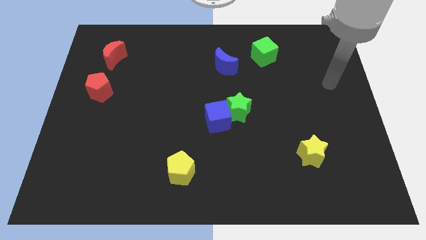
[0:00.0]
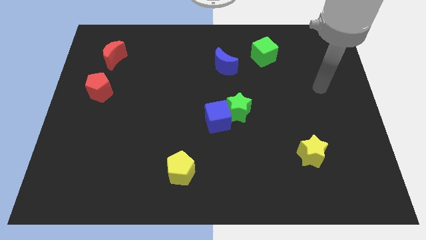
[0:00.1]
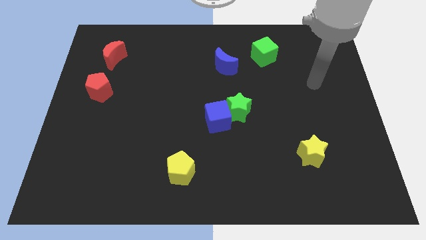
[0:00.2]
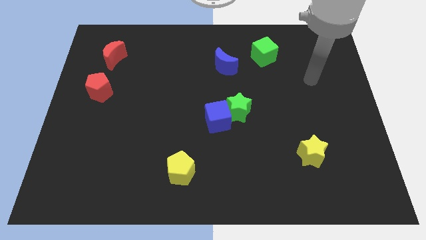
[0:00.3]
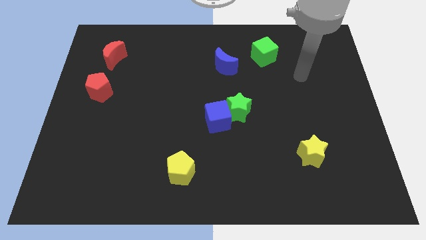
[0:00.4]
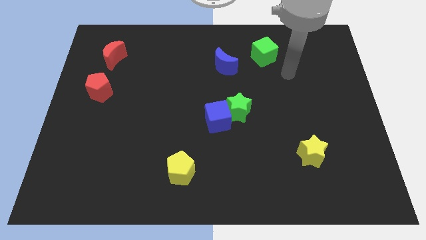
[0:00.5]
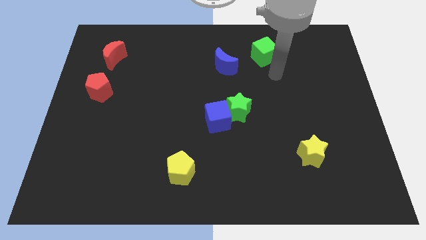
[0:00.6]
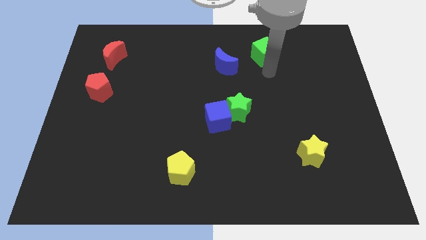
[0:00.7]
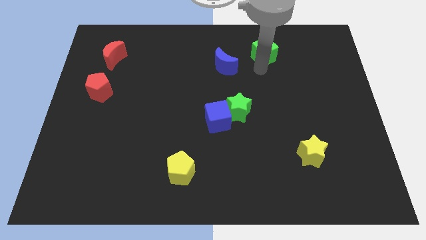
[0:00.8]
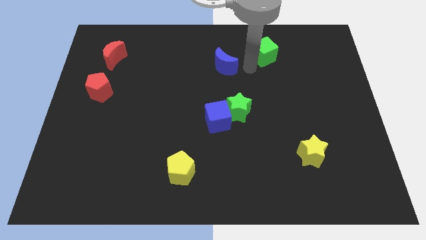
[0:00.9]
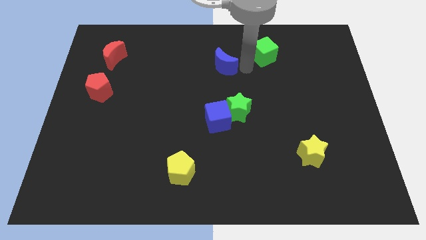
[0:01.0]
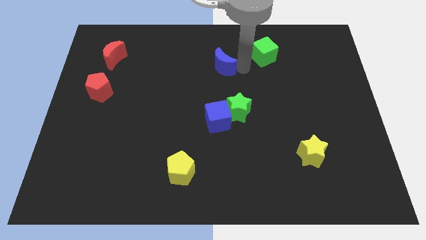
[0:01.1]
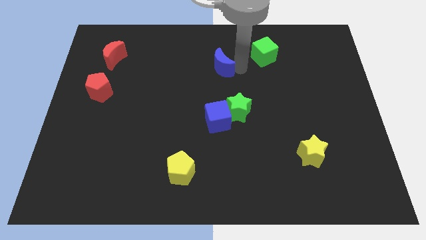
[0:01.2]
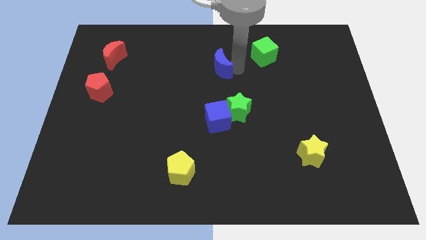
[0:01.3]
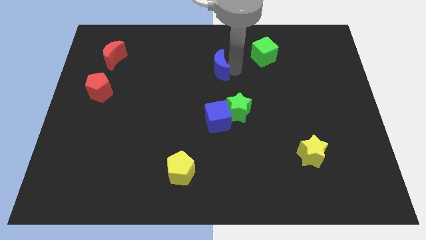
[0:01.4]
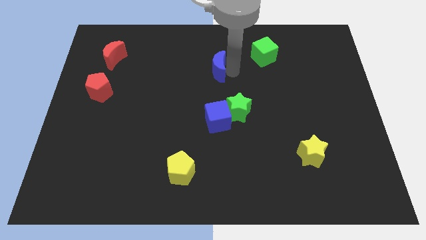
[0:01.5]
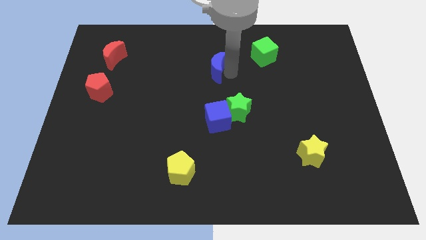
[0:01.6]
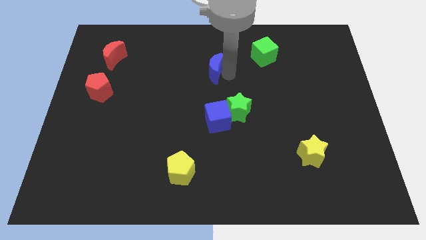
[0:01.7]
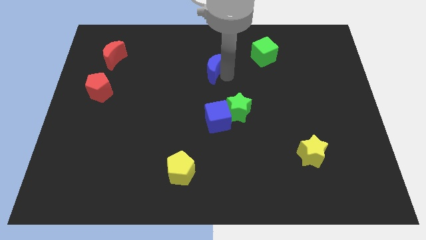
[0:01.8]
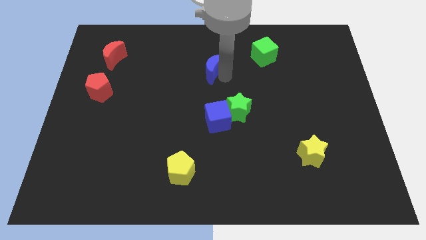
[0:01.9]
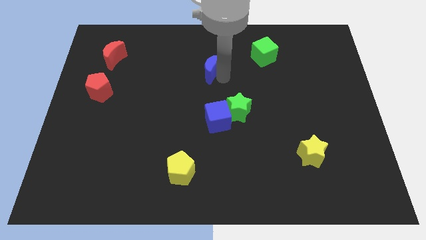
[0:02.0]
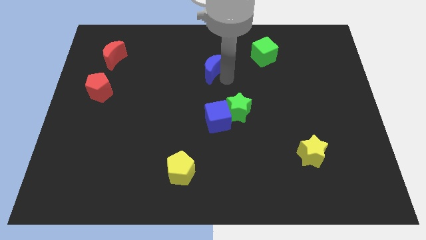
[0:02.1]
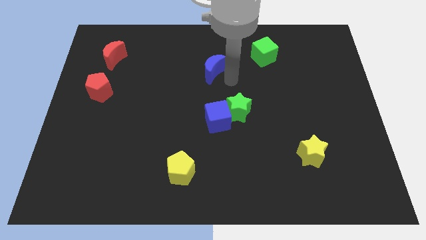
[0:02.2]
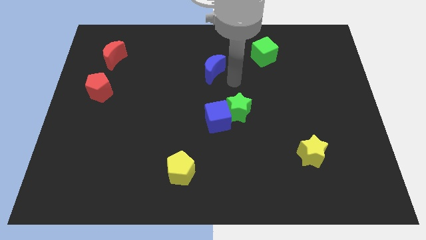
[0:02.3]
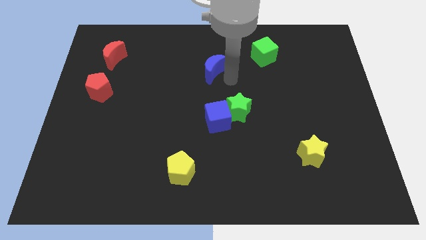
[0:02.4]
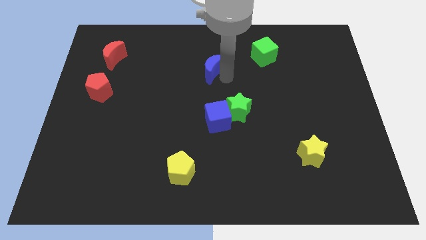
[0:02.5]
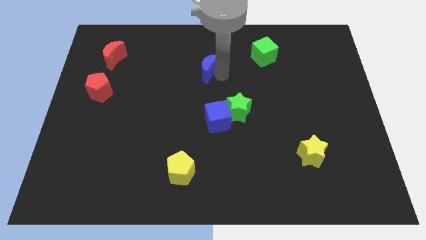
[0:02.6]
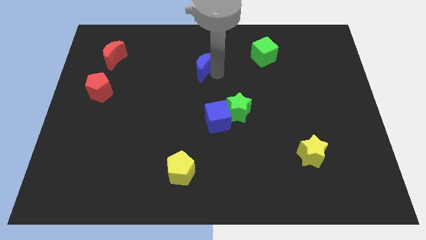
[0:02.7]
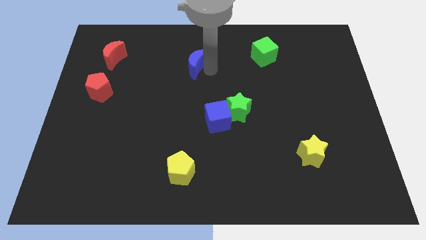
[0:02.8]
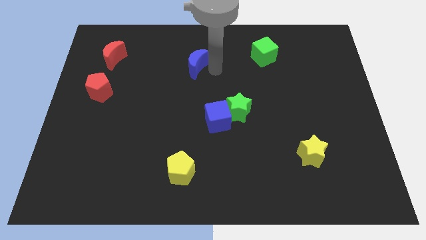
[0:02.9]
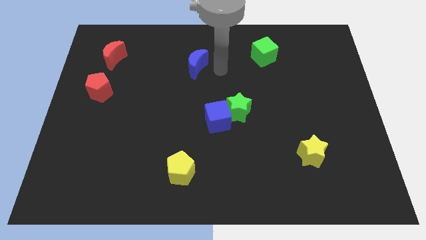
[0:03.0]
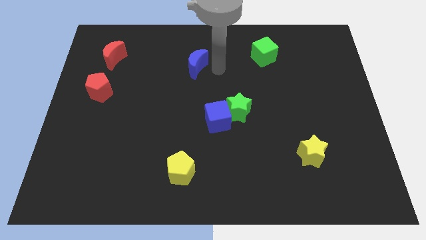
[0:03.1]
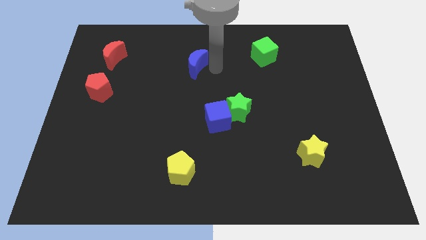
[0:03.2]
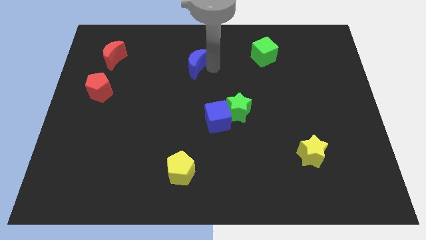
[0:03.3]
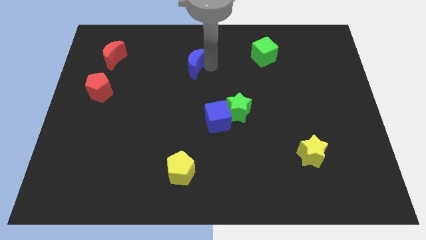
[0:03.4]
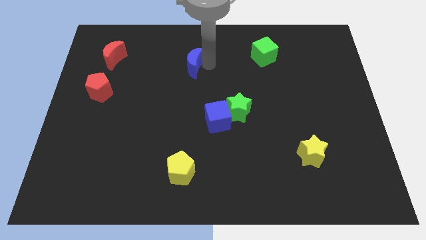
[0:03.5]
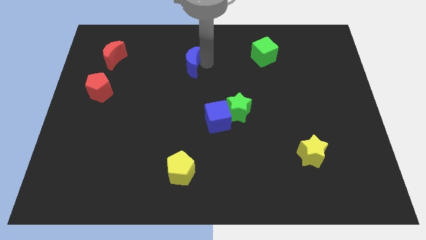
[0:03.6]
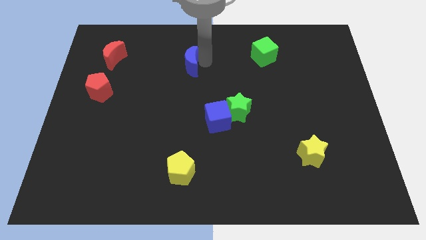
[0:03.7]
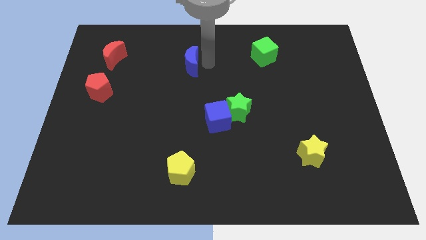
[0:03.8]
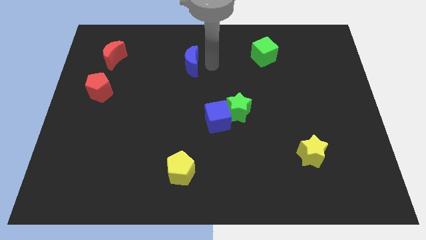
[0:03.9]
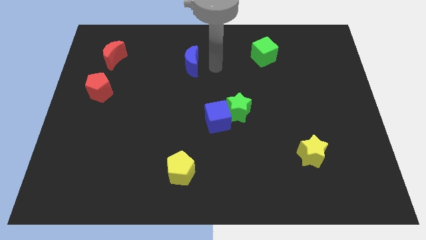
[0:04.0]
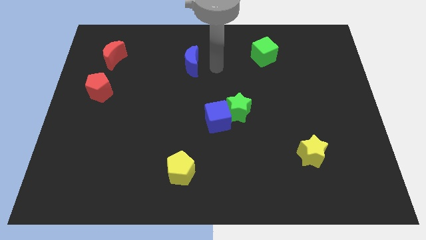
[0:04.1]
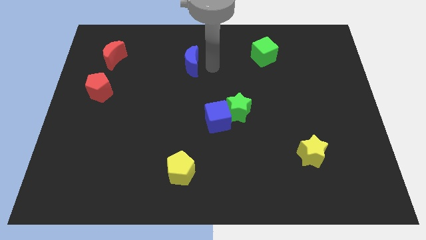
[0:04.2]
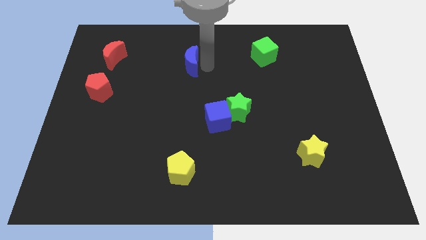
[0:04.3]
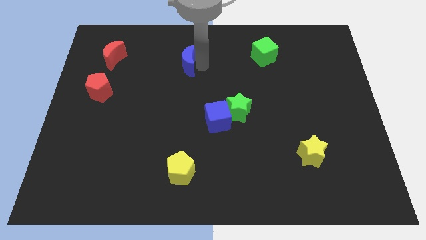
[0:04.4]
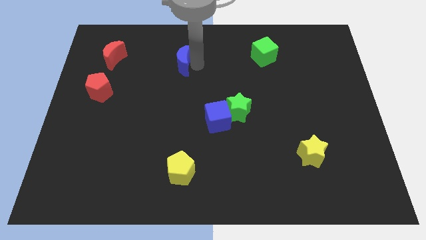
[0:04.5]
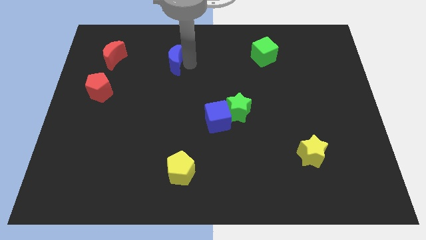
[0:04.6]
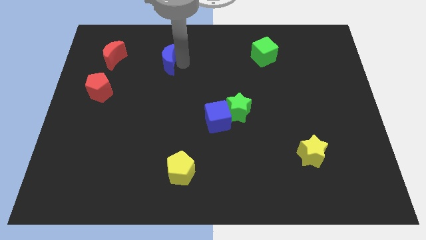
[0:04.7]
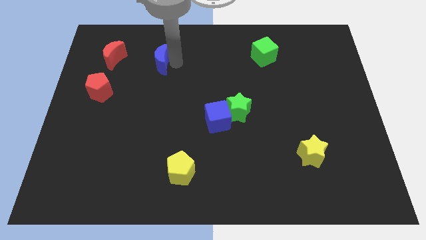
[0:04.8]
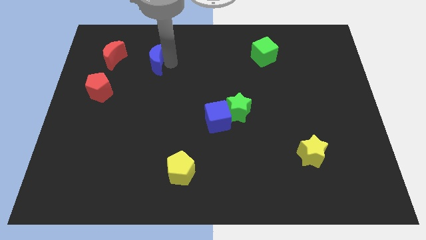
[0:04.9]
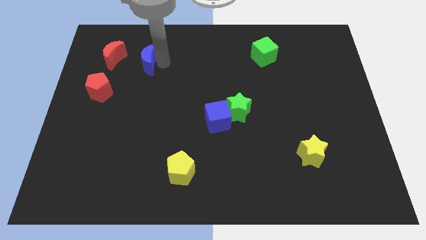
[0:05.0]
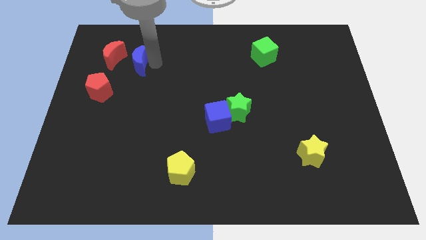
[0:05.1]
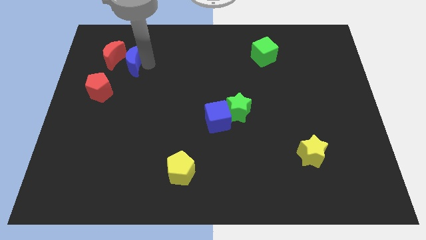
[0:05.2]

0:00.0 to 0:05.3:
push the blue moon next to the red moon

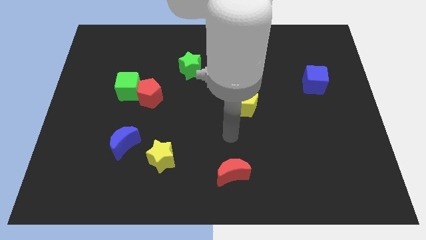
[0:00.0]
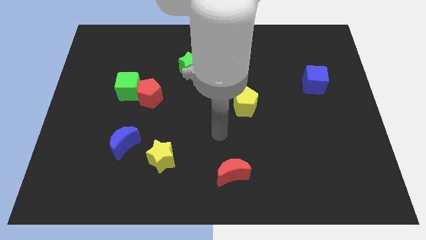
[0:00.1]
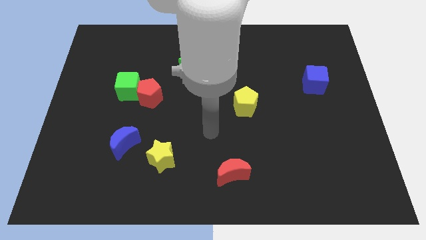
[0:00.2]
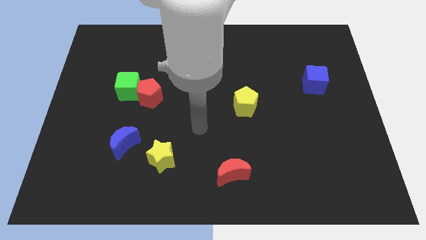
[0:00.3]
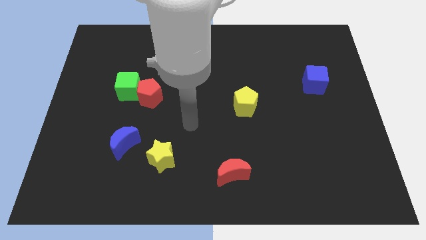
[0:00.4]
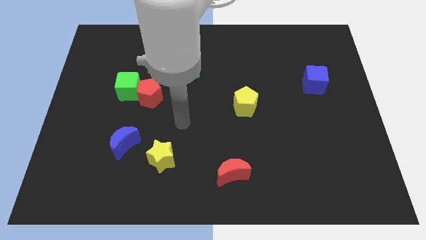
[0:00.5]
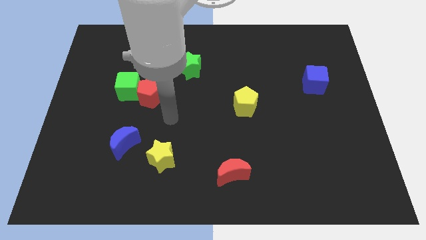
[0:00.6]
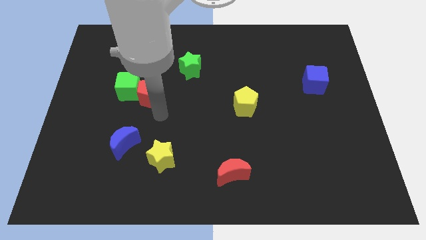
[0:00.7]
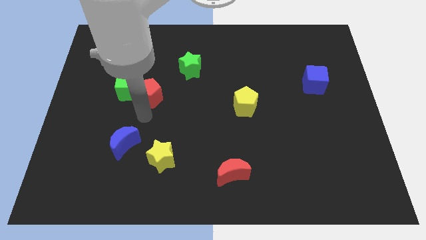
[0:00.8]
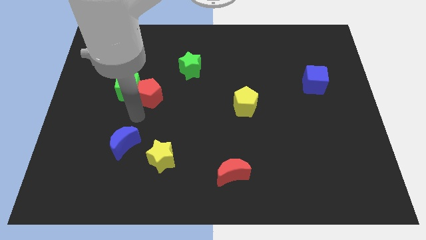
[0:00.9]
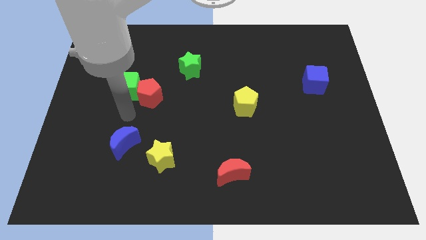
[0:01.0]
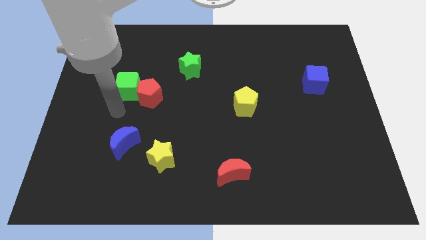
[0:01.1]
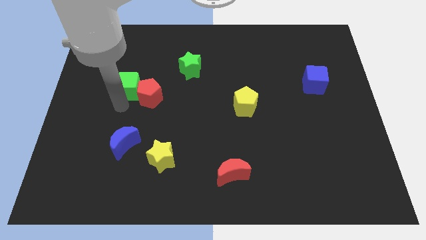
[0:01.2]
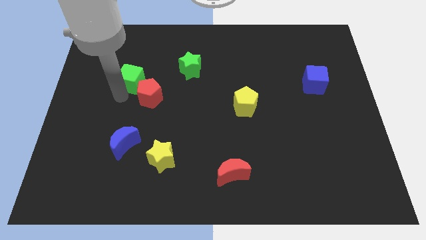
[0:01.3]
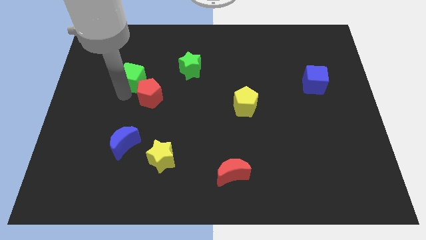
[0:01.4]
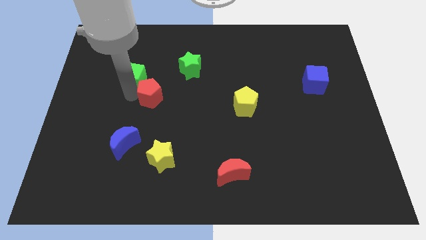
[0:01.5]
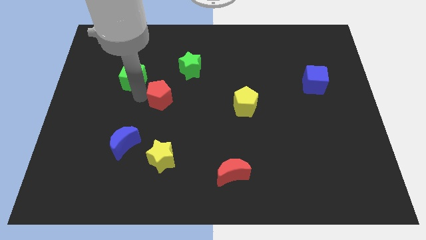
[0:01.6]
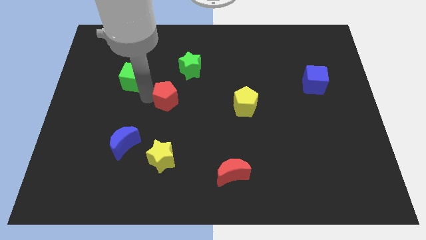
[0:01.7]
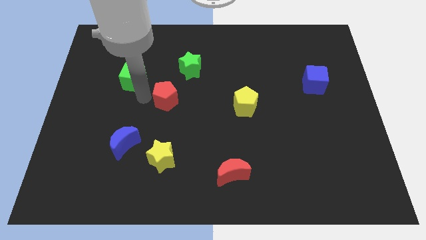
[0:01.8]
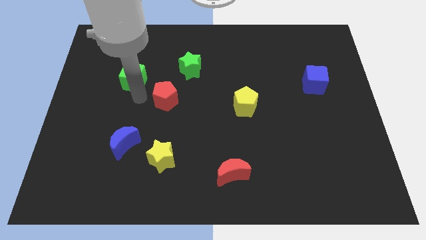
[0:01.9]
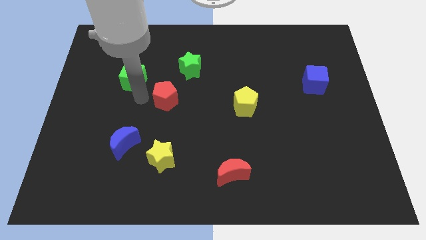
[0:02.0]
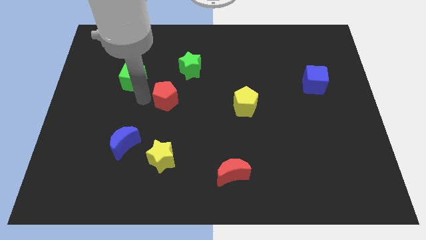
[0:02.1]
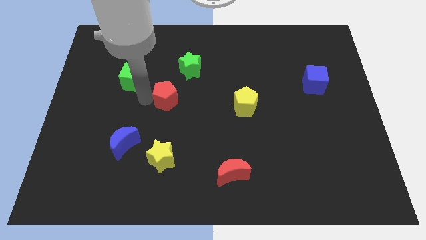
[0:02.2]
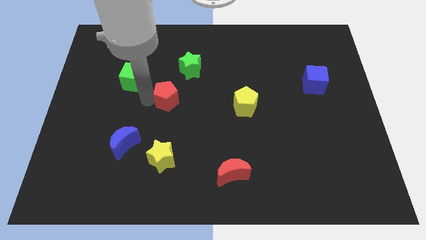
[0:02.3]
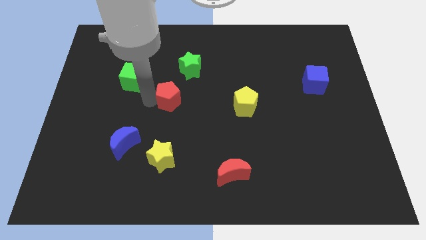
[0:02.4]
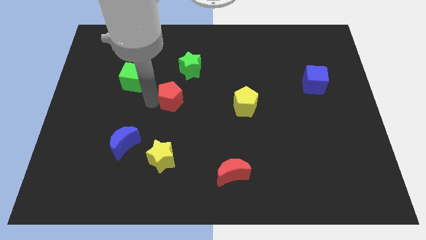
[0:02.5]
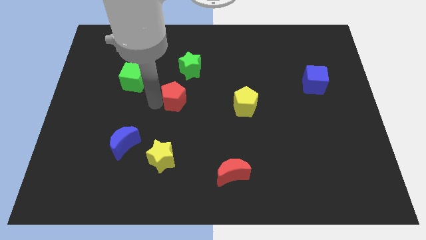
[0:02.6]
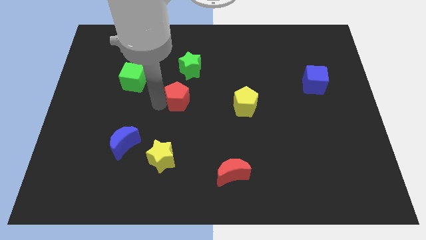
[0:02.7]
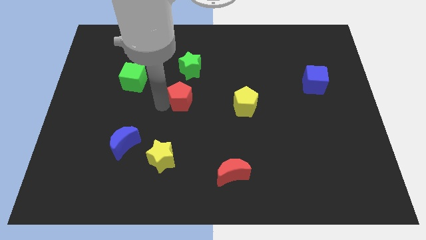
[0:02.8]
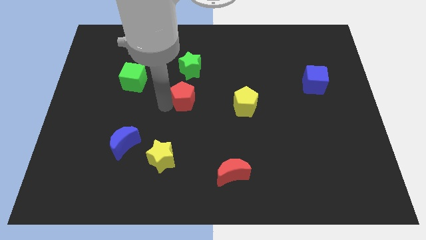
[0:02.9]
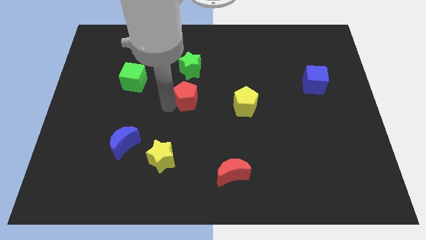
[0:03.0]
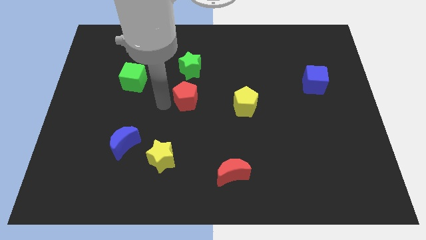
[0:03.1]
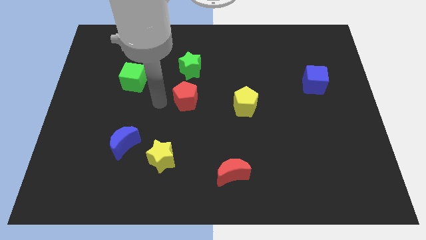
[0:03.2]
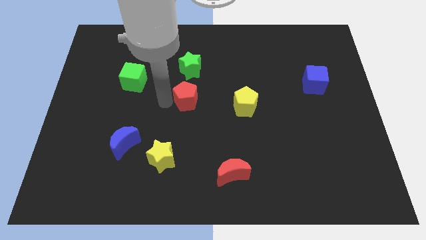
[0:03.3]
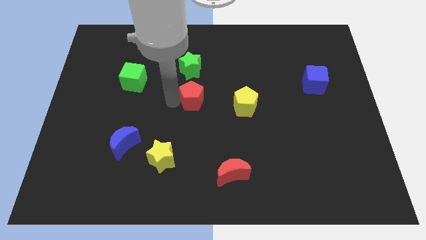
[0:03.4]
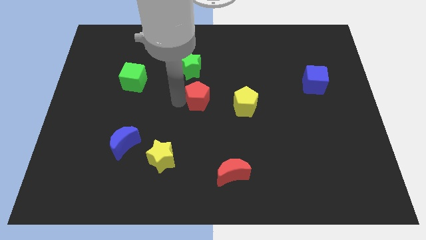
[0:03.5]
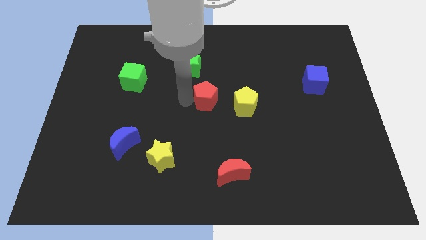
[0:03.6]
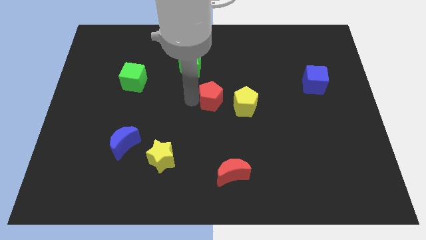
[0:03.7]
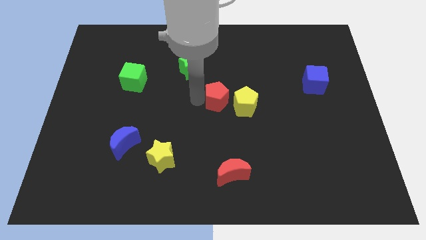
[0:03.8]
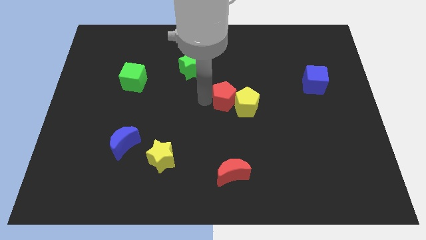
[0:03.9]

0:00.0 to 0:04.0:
move the red pentagon next to the yellow pentagon
